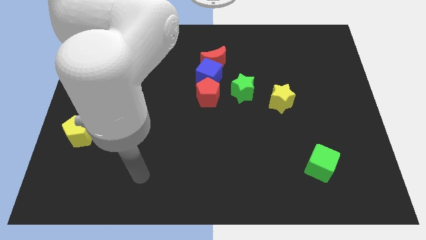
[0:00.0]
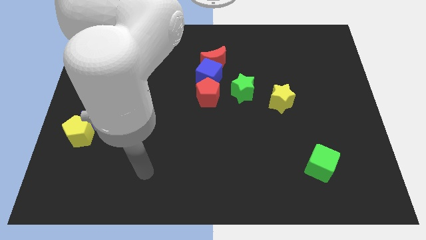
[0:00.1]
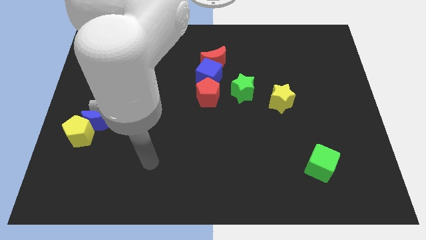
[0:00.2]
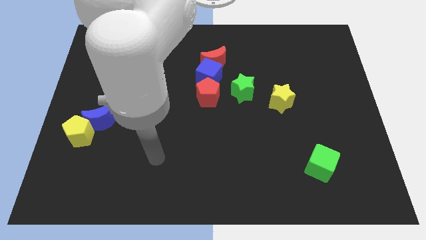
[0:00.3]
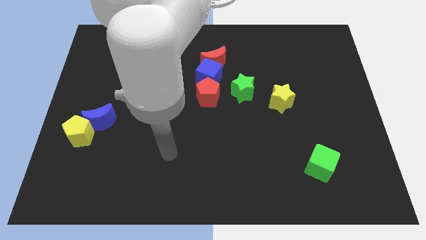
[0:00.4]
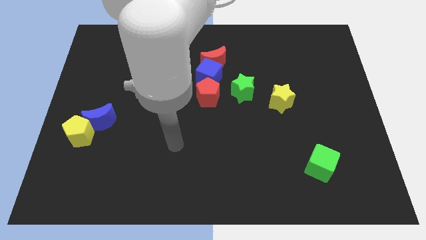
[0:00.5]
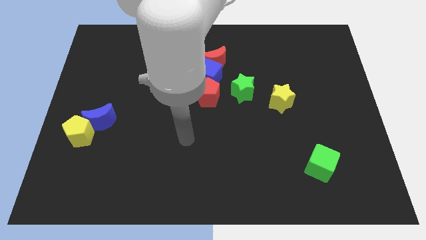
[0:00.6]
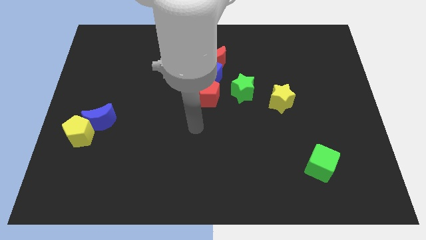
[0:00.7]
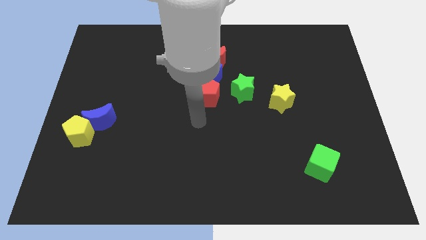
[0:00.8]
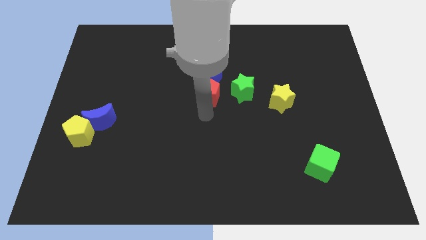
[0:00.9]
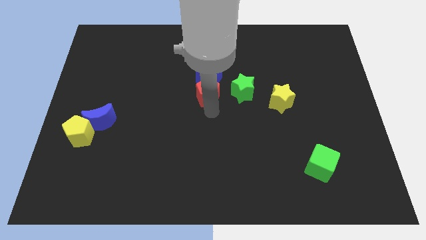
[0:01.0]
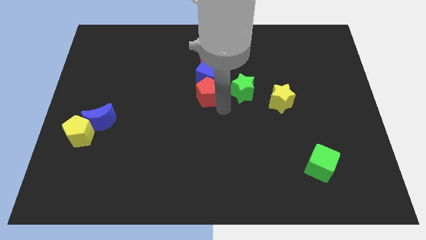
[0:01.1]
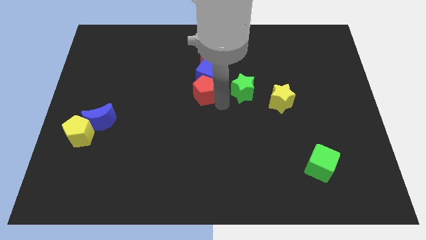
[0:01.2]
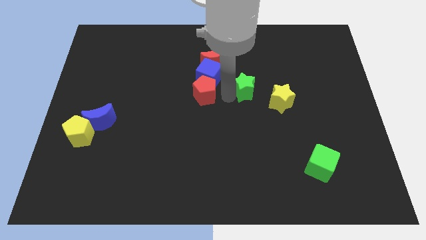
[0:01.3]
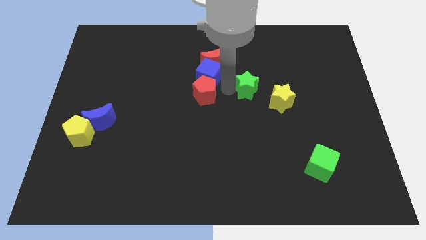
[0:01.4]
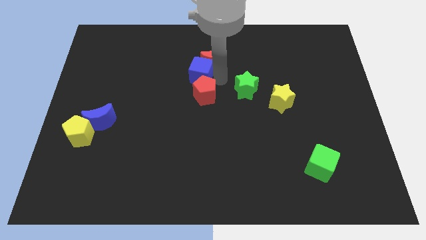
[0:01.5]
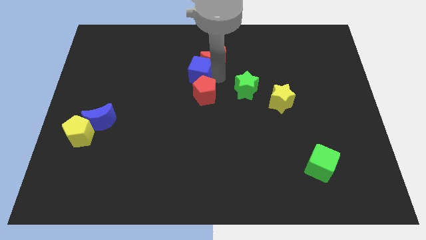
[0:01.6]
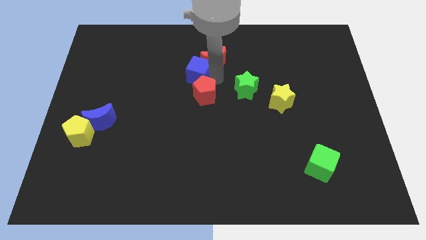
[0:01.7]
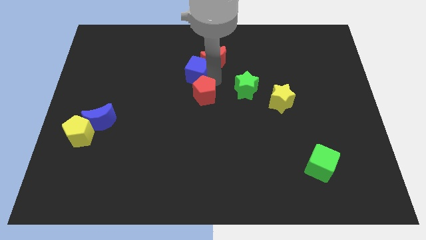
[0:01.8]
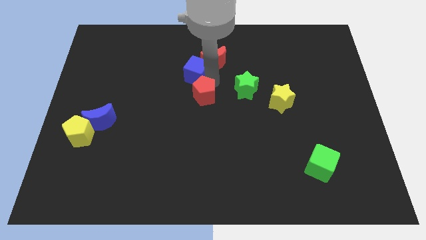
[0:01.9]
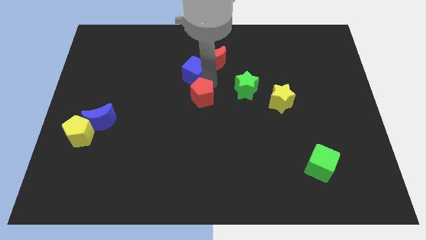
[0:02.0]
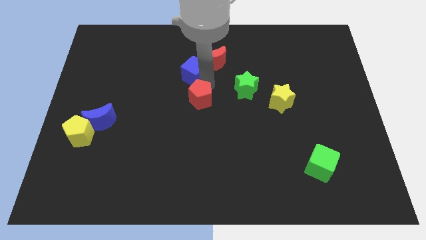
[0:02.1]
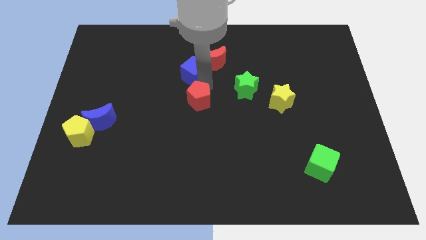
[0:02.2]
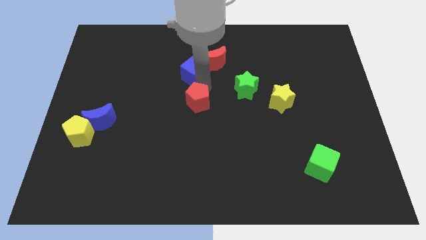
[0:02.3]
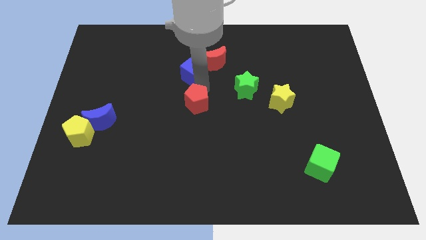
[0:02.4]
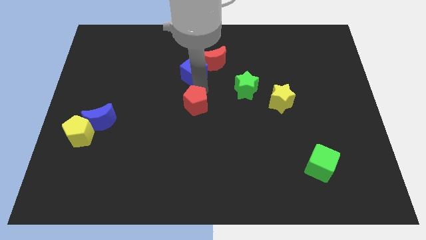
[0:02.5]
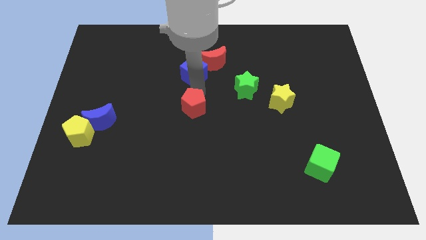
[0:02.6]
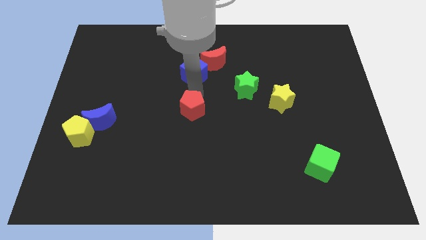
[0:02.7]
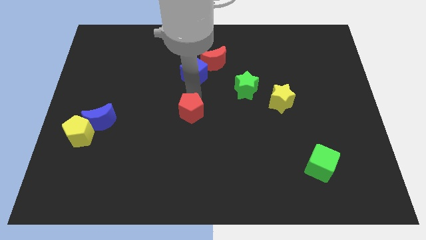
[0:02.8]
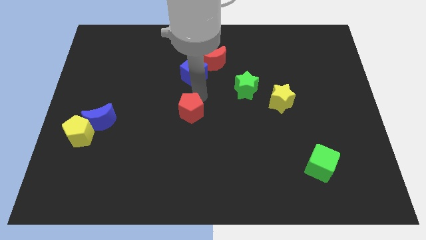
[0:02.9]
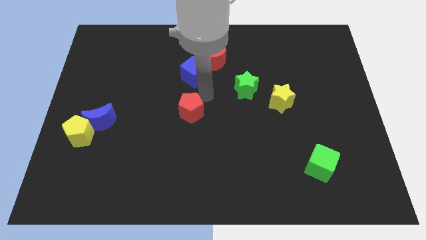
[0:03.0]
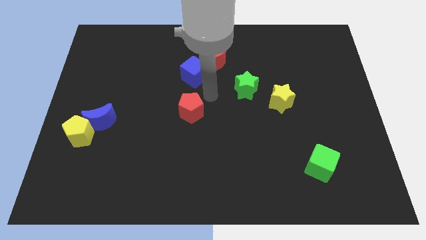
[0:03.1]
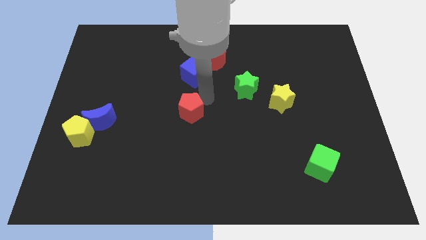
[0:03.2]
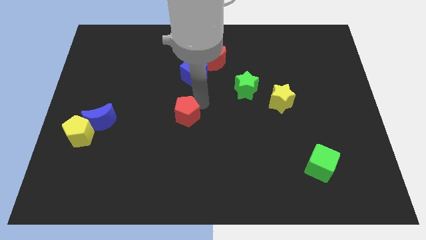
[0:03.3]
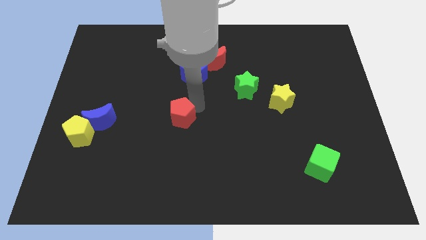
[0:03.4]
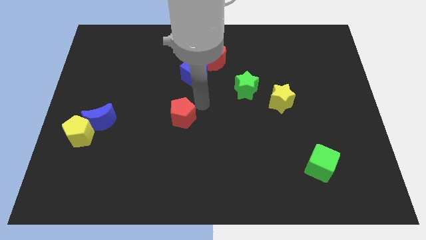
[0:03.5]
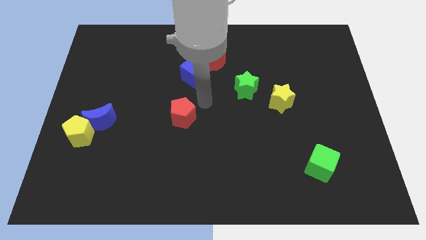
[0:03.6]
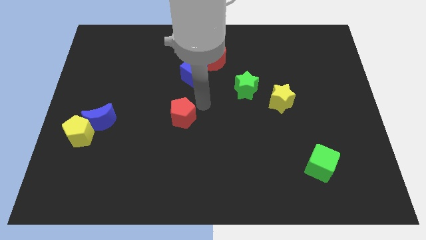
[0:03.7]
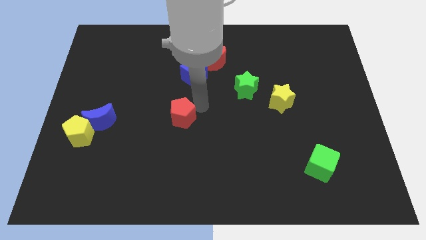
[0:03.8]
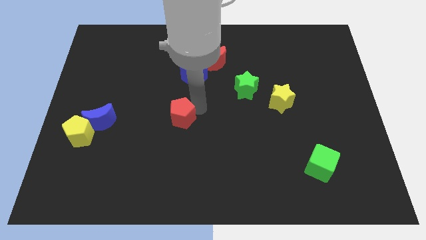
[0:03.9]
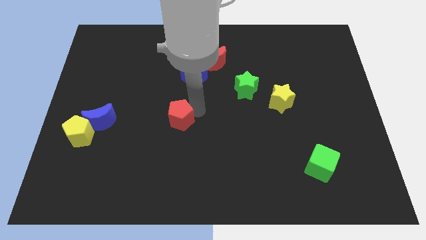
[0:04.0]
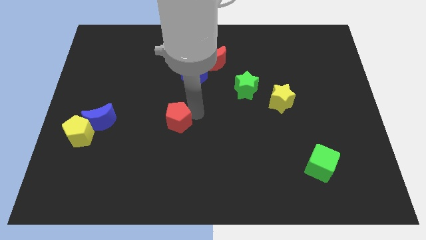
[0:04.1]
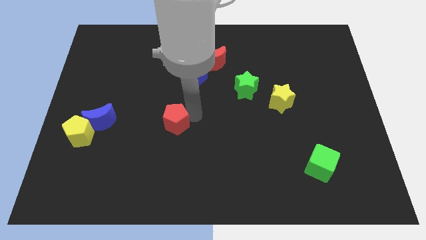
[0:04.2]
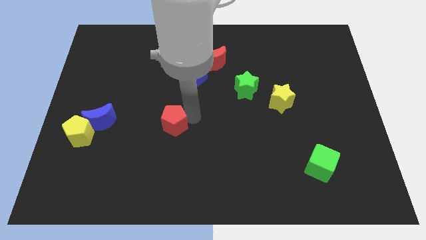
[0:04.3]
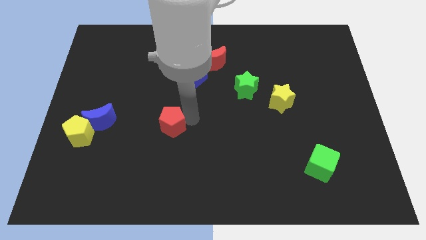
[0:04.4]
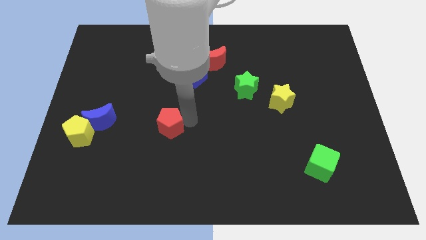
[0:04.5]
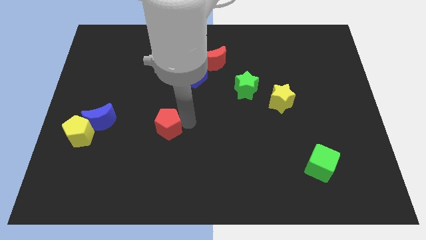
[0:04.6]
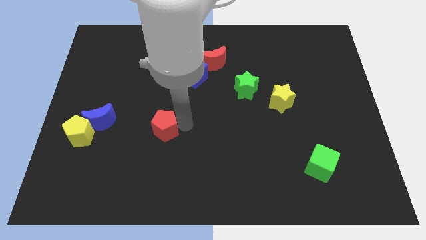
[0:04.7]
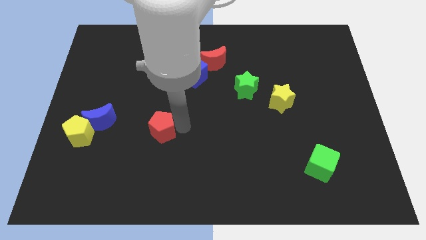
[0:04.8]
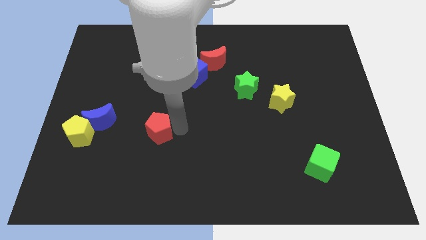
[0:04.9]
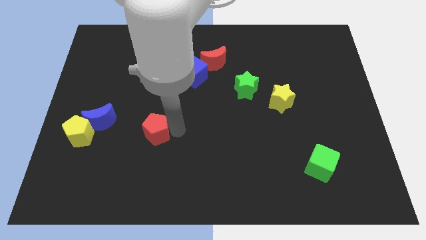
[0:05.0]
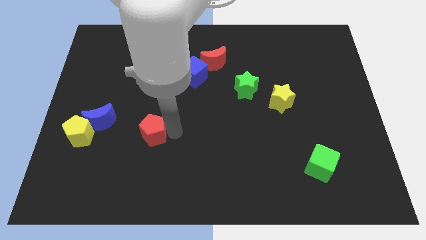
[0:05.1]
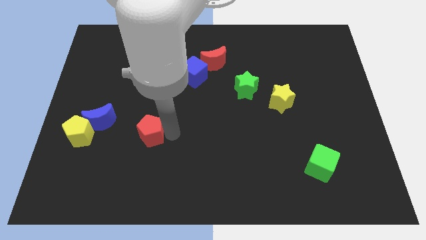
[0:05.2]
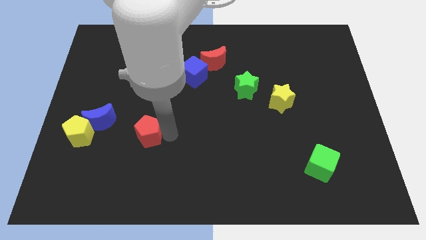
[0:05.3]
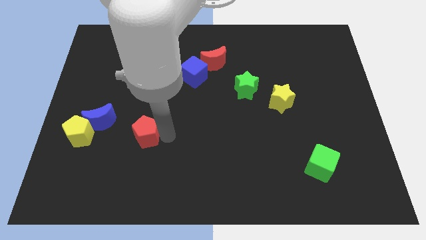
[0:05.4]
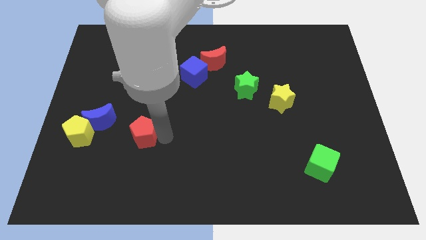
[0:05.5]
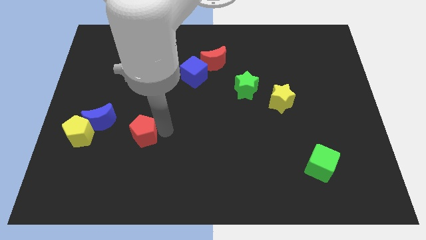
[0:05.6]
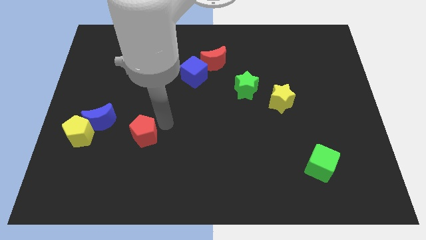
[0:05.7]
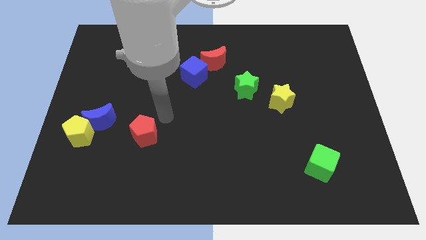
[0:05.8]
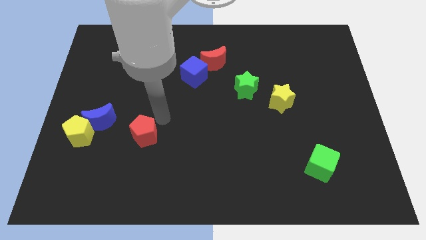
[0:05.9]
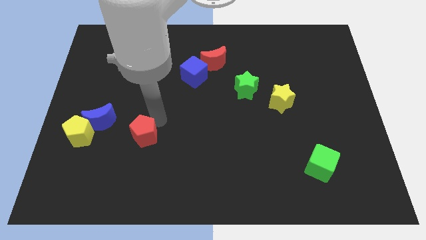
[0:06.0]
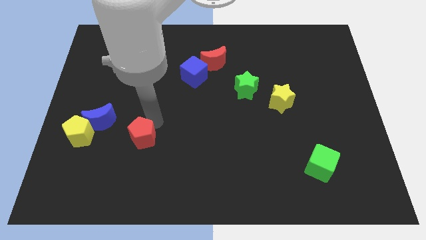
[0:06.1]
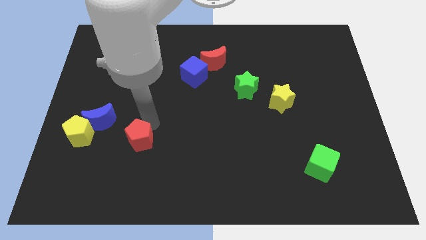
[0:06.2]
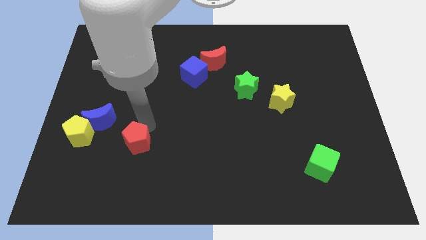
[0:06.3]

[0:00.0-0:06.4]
slide the red pentagon down and then left

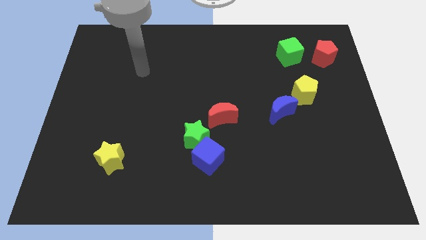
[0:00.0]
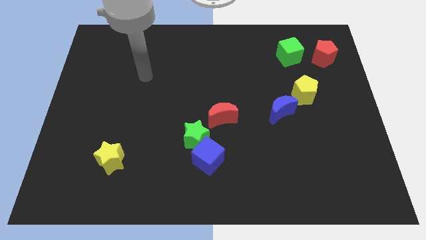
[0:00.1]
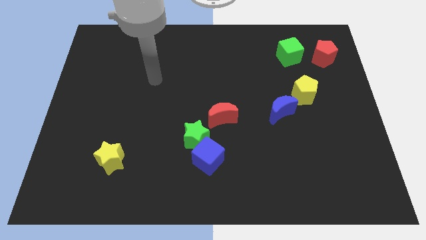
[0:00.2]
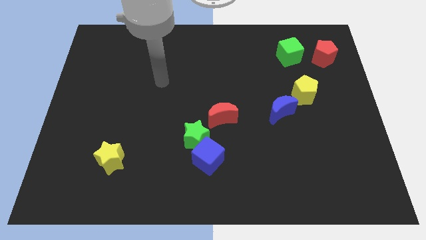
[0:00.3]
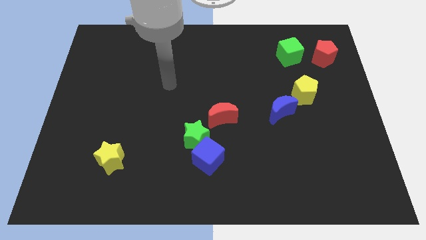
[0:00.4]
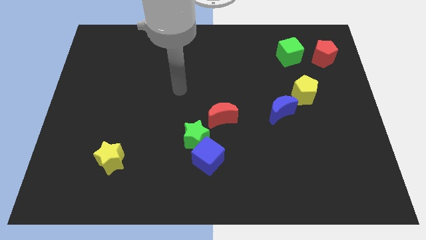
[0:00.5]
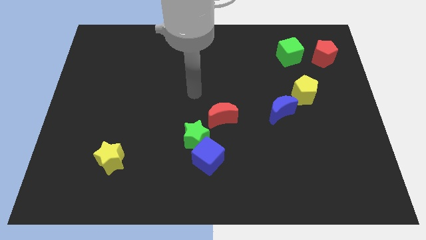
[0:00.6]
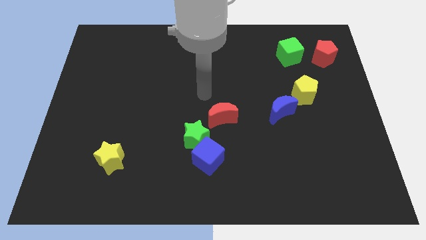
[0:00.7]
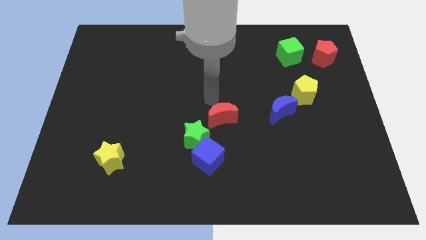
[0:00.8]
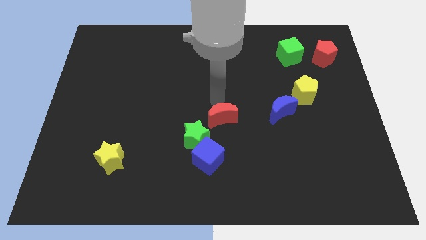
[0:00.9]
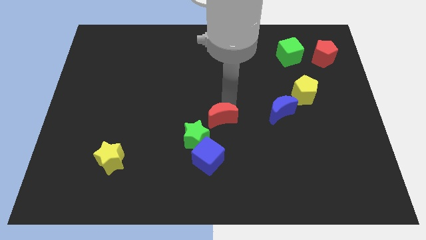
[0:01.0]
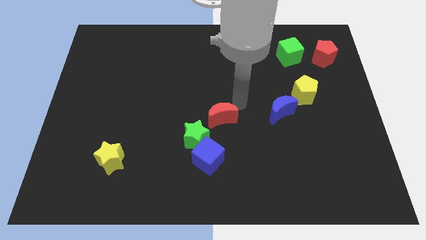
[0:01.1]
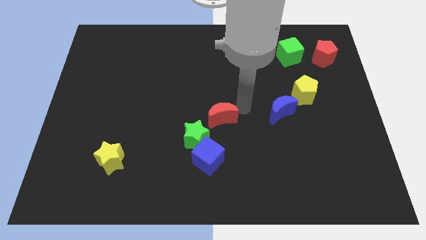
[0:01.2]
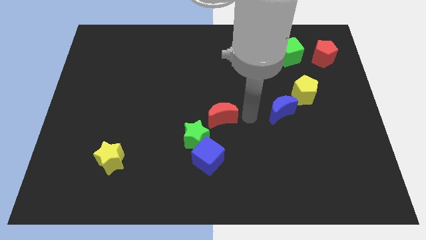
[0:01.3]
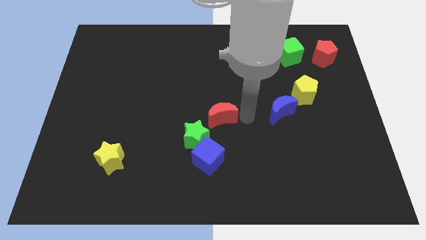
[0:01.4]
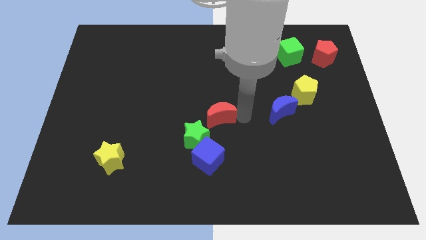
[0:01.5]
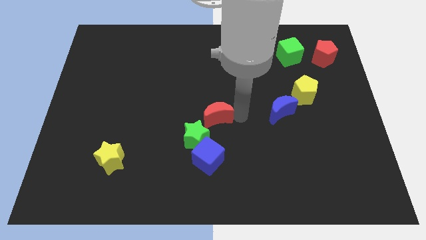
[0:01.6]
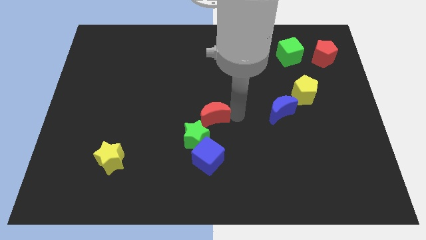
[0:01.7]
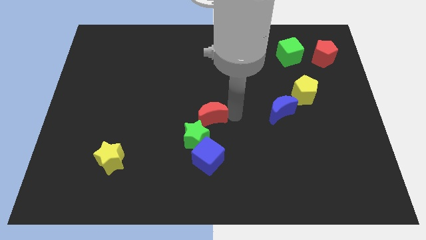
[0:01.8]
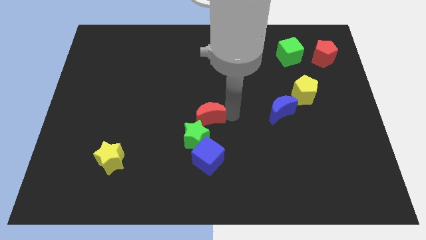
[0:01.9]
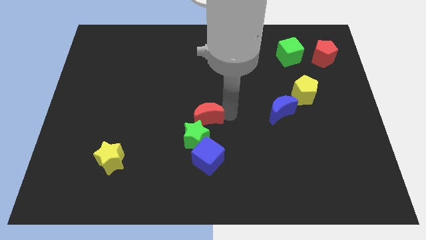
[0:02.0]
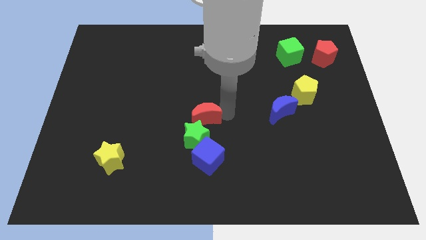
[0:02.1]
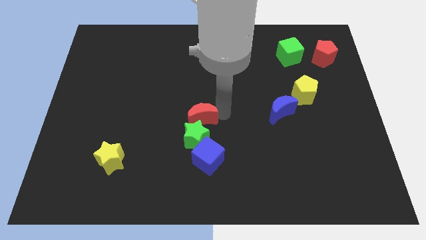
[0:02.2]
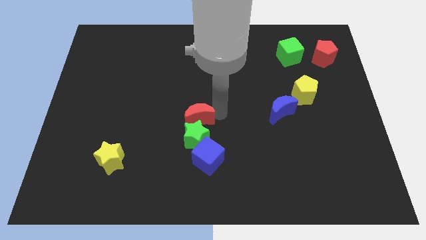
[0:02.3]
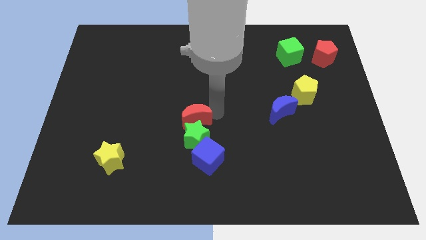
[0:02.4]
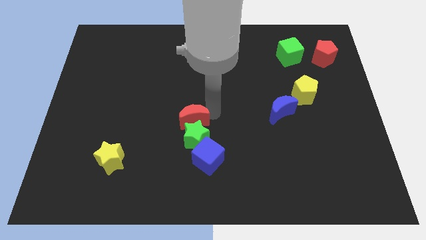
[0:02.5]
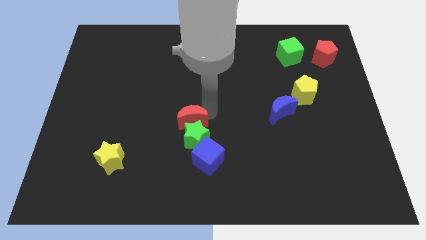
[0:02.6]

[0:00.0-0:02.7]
push the red moon a little bit to the left
